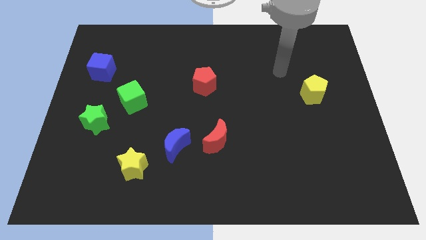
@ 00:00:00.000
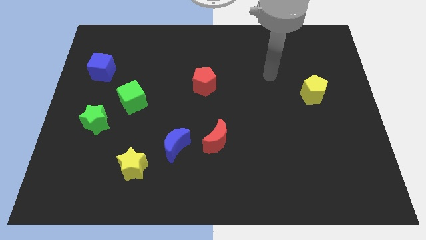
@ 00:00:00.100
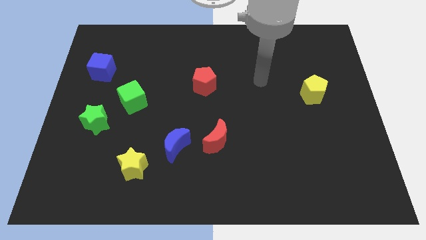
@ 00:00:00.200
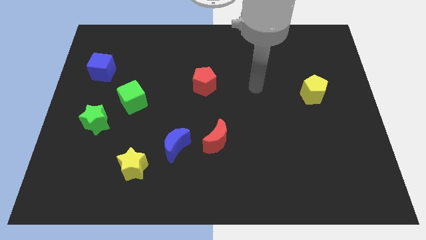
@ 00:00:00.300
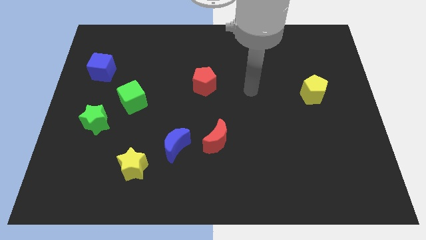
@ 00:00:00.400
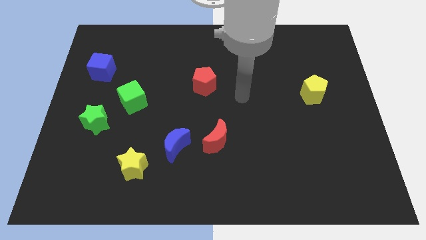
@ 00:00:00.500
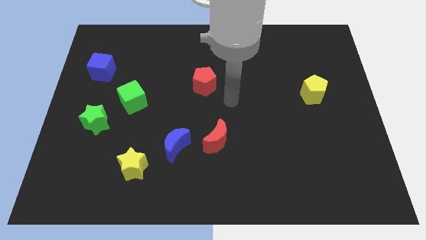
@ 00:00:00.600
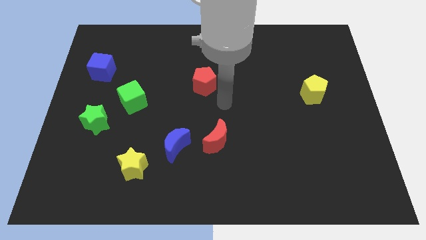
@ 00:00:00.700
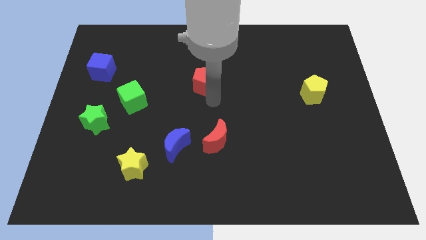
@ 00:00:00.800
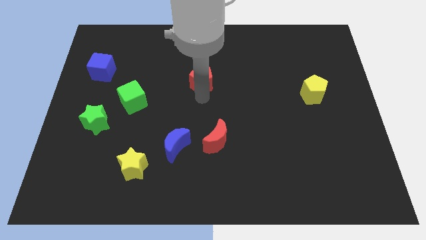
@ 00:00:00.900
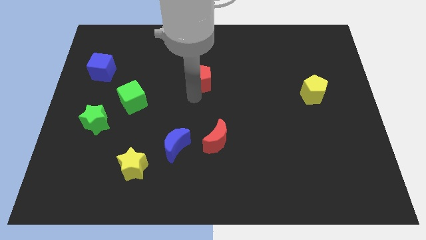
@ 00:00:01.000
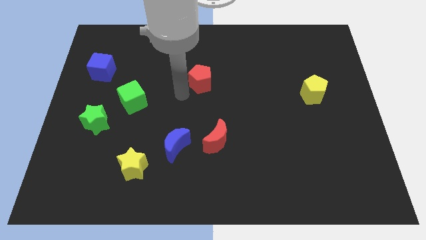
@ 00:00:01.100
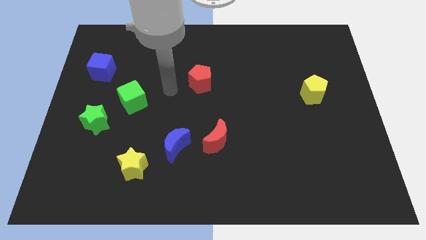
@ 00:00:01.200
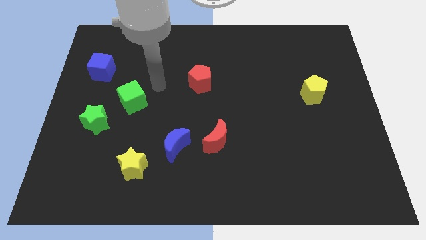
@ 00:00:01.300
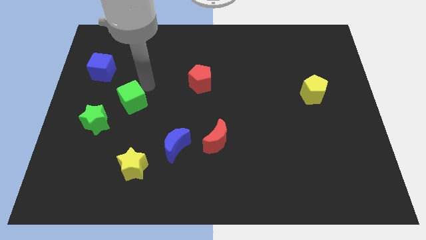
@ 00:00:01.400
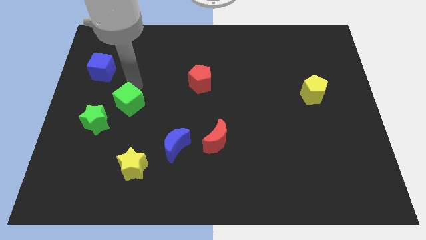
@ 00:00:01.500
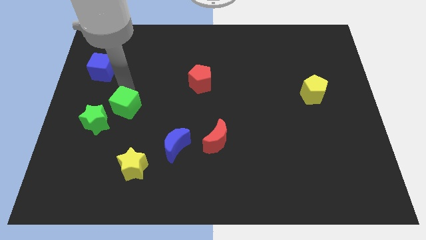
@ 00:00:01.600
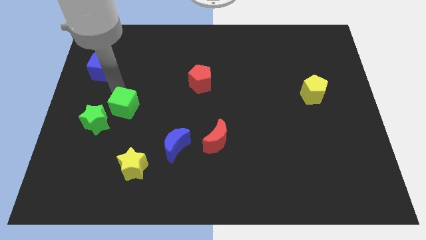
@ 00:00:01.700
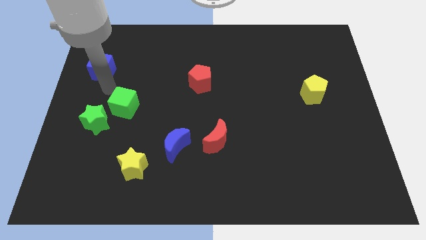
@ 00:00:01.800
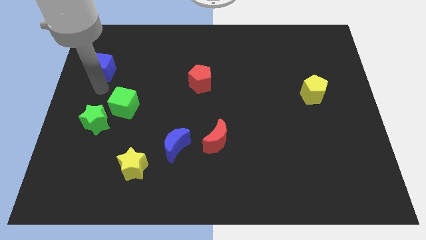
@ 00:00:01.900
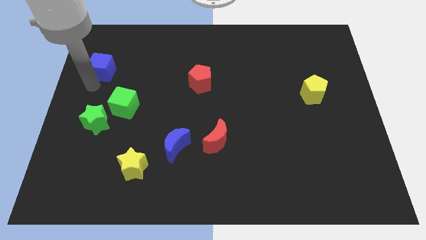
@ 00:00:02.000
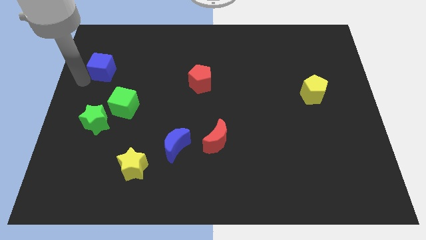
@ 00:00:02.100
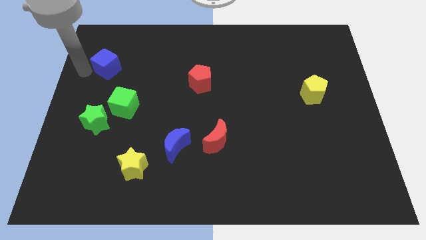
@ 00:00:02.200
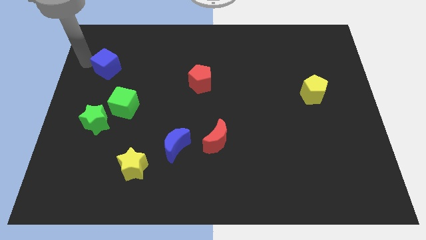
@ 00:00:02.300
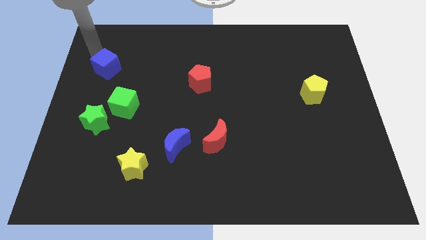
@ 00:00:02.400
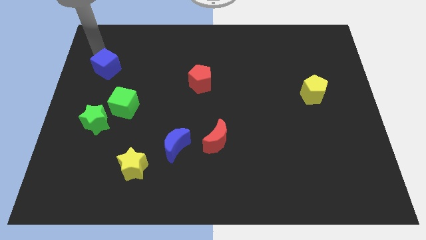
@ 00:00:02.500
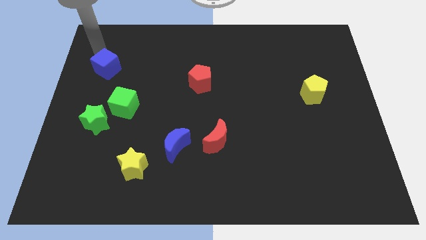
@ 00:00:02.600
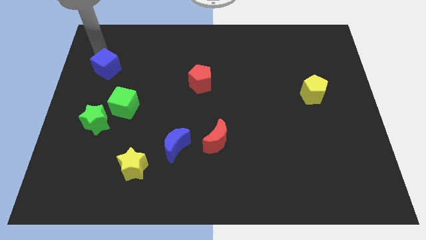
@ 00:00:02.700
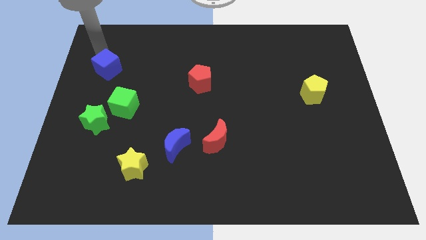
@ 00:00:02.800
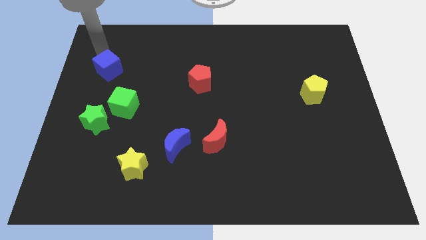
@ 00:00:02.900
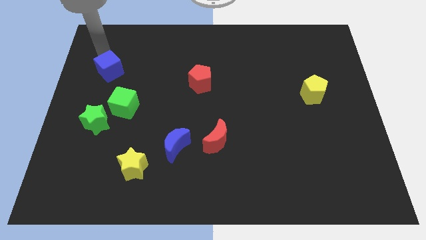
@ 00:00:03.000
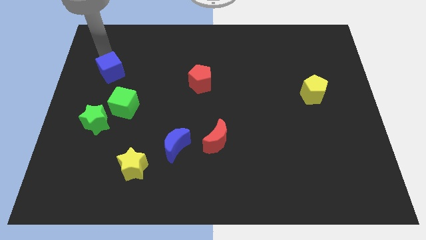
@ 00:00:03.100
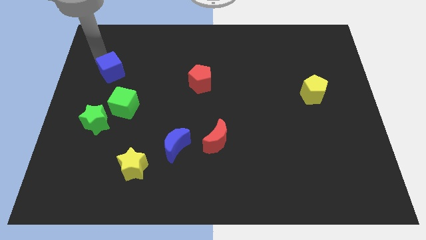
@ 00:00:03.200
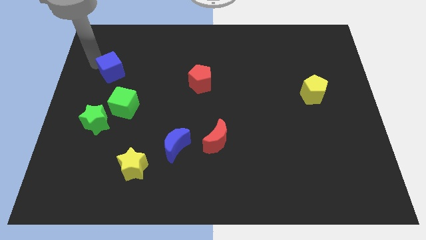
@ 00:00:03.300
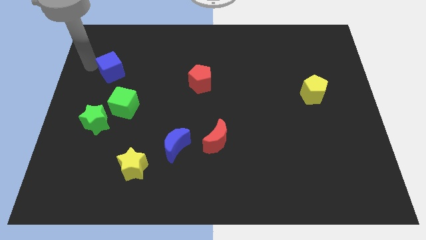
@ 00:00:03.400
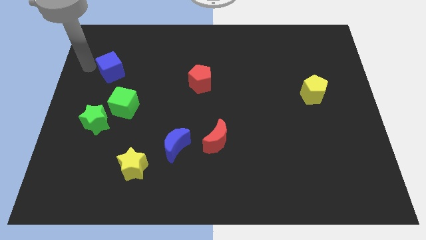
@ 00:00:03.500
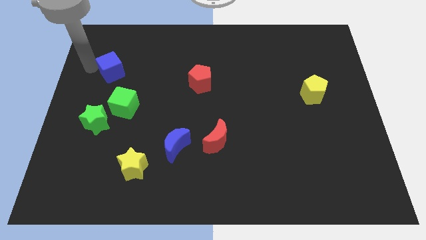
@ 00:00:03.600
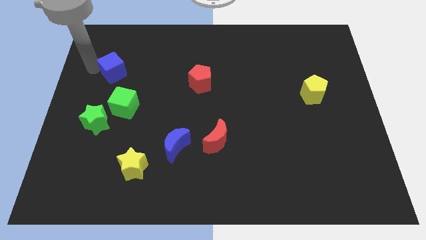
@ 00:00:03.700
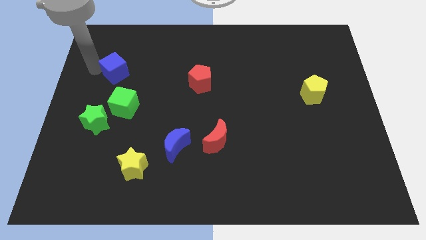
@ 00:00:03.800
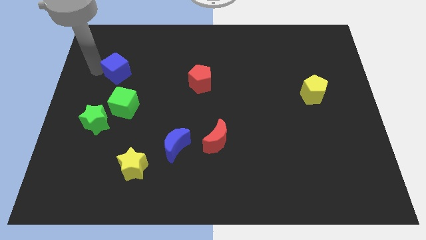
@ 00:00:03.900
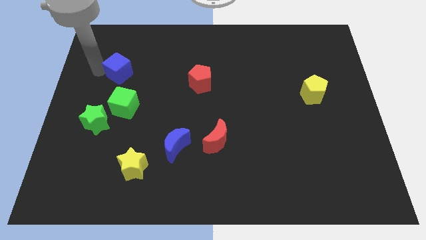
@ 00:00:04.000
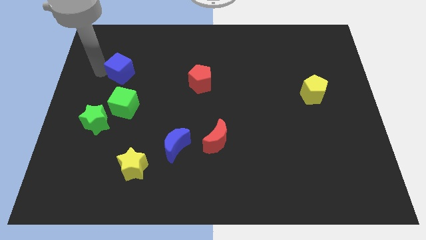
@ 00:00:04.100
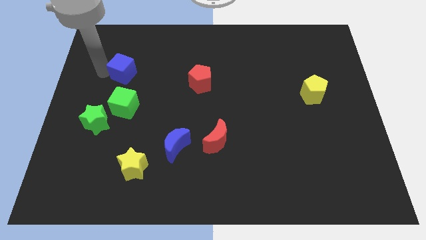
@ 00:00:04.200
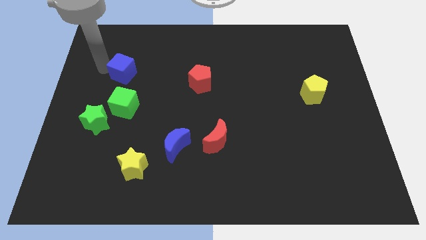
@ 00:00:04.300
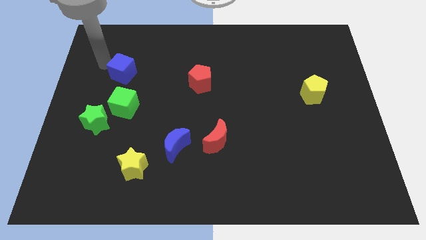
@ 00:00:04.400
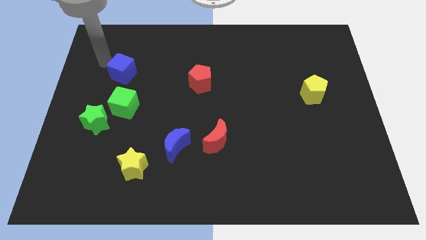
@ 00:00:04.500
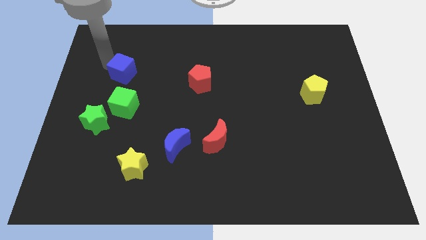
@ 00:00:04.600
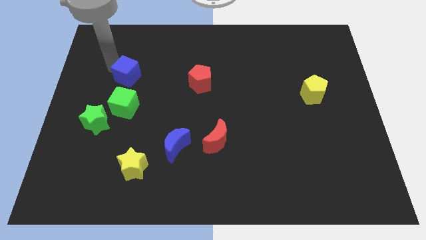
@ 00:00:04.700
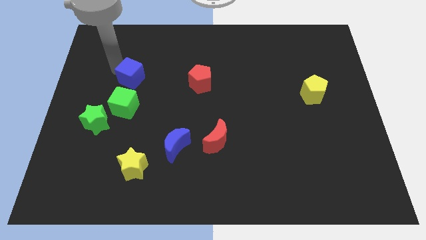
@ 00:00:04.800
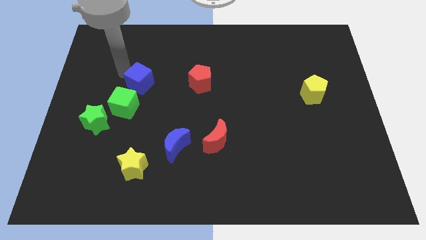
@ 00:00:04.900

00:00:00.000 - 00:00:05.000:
slide the blue cube a bit downwards and right diagonally

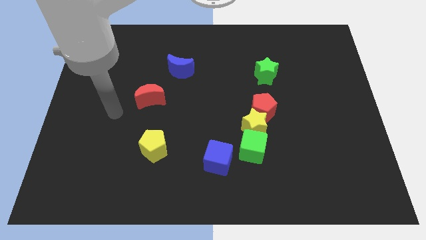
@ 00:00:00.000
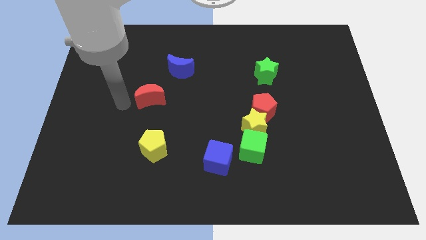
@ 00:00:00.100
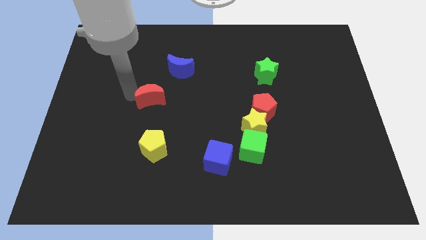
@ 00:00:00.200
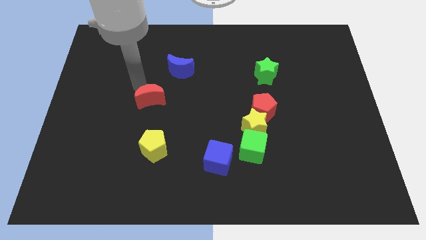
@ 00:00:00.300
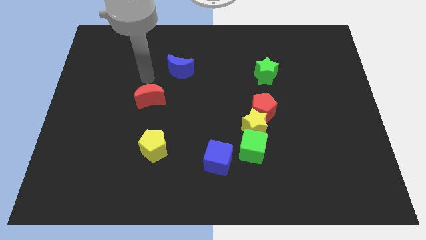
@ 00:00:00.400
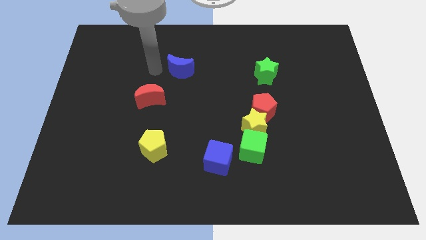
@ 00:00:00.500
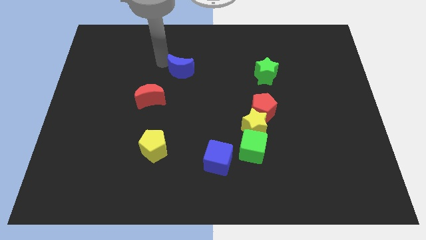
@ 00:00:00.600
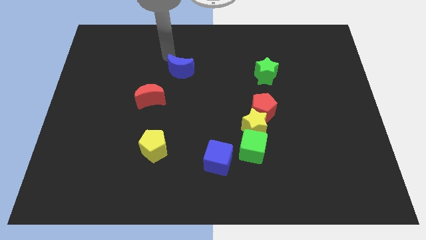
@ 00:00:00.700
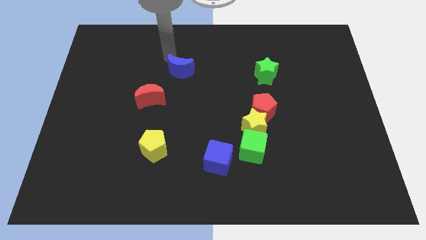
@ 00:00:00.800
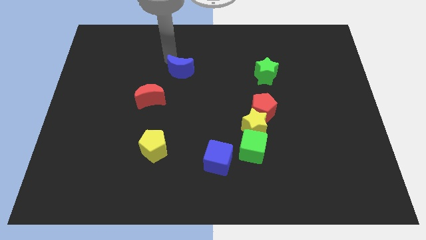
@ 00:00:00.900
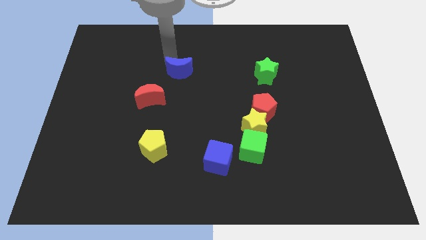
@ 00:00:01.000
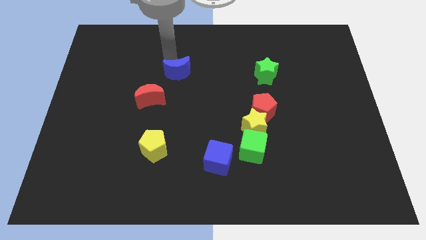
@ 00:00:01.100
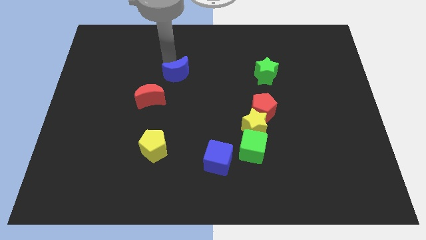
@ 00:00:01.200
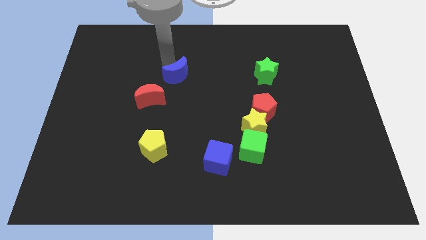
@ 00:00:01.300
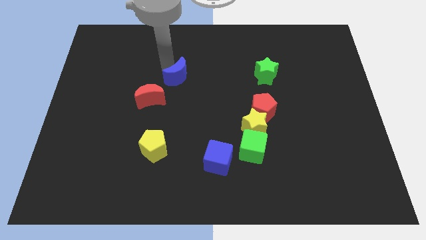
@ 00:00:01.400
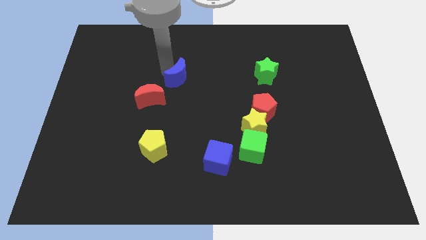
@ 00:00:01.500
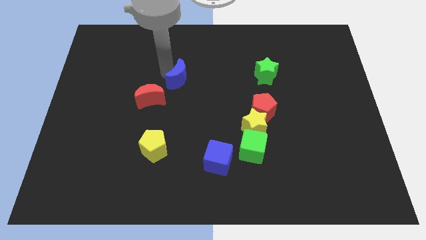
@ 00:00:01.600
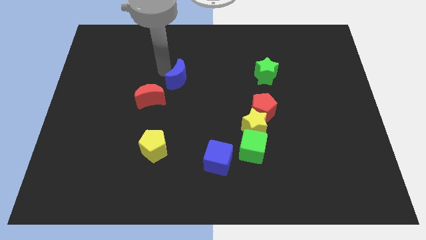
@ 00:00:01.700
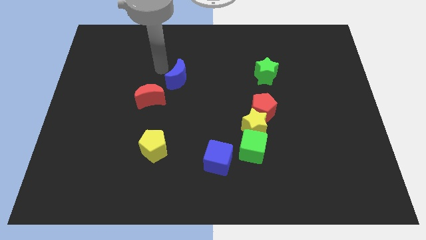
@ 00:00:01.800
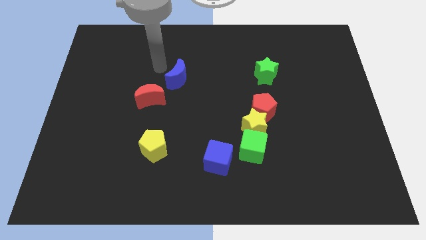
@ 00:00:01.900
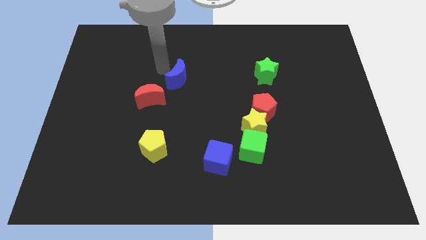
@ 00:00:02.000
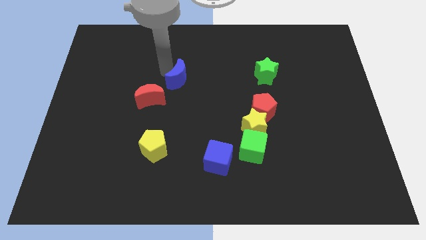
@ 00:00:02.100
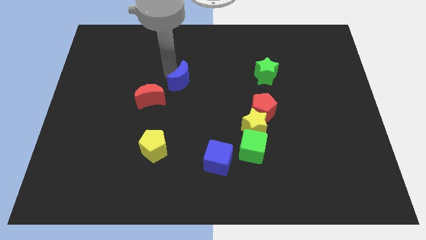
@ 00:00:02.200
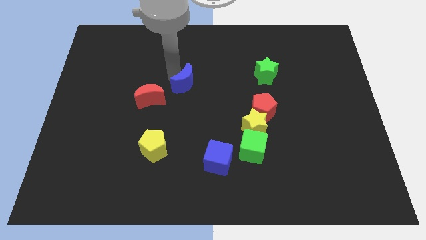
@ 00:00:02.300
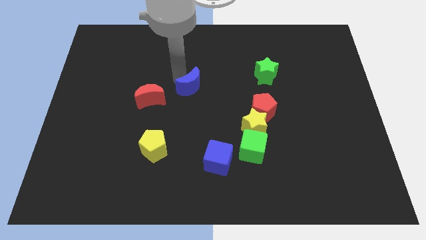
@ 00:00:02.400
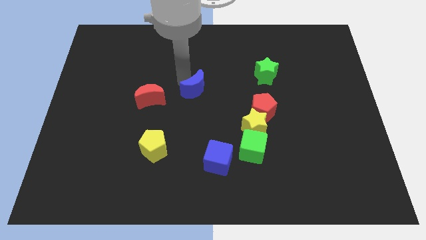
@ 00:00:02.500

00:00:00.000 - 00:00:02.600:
slide the blue moon down and then right a little bit

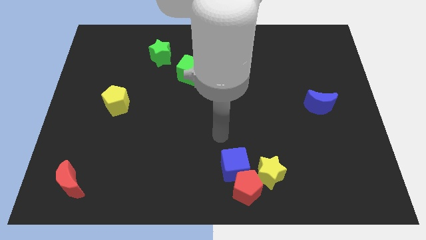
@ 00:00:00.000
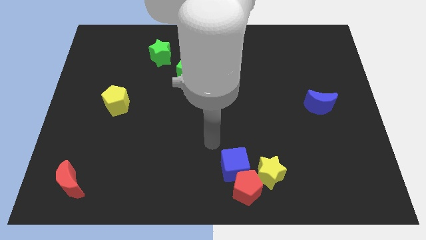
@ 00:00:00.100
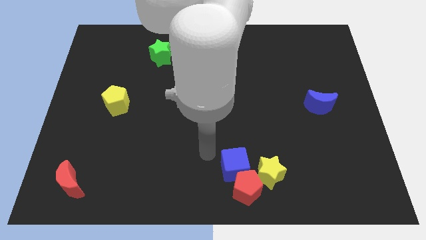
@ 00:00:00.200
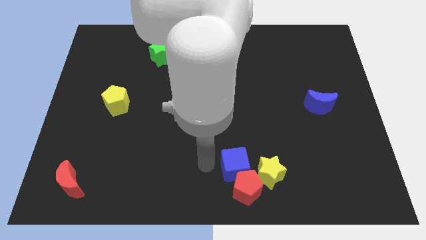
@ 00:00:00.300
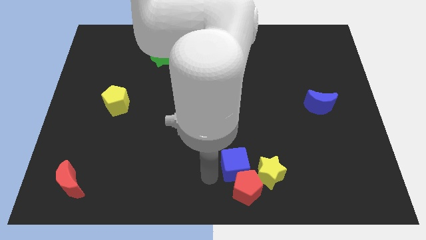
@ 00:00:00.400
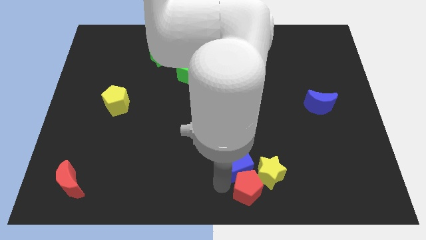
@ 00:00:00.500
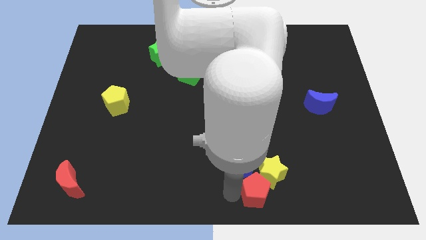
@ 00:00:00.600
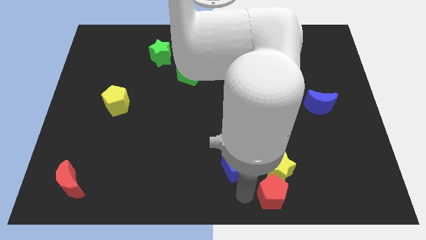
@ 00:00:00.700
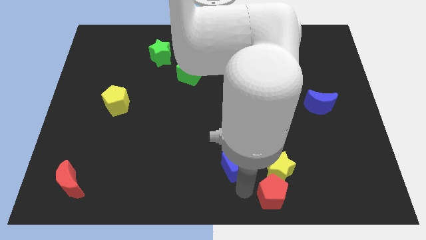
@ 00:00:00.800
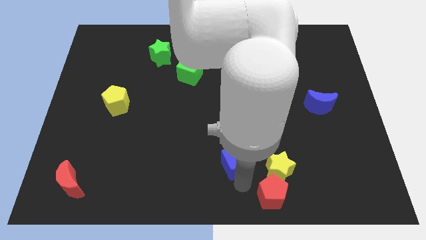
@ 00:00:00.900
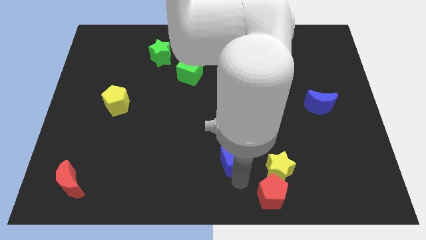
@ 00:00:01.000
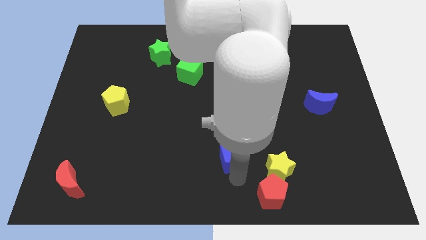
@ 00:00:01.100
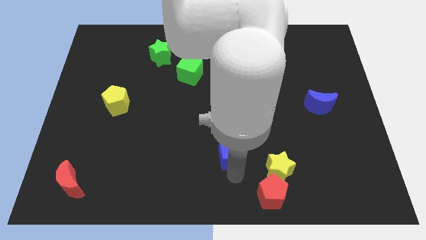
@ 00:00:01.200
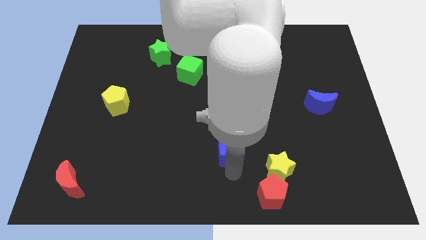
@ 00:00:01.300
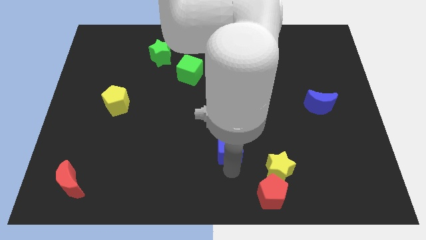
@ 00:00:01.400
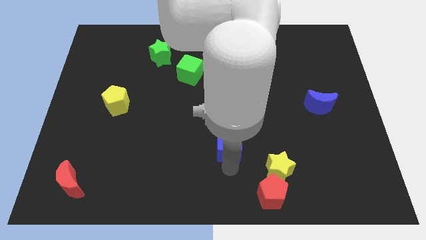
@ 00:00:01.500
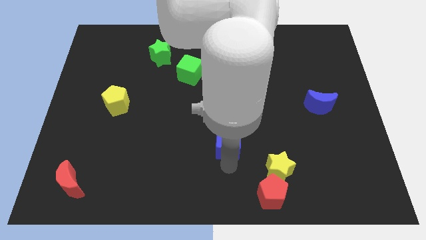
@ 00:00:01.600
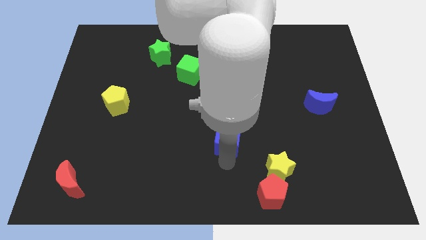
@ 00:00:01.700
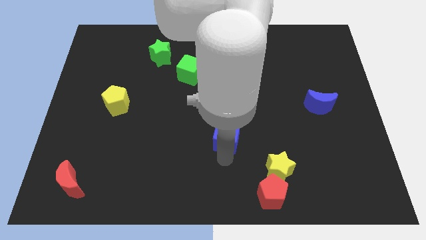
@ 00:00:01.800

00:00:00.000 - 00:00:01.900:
move the blue cube upwards a little
